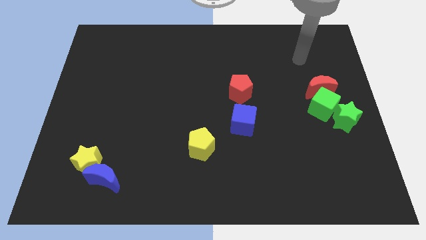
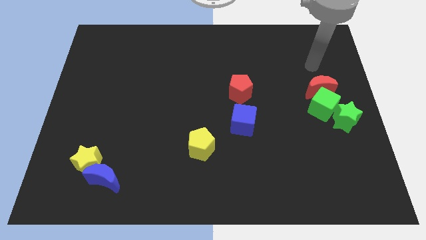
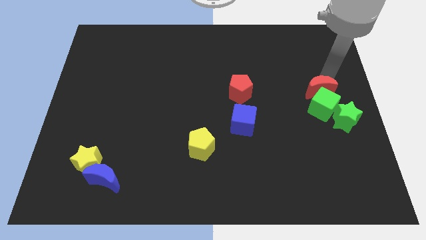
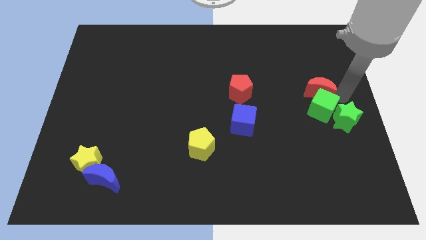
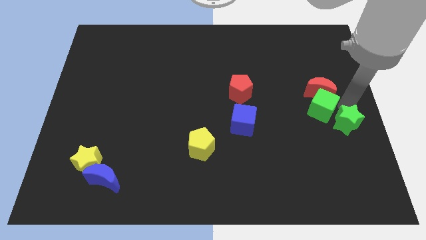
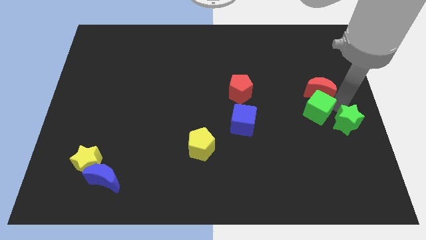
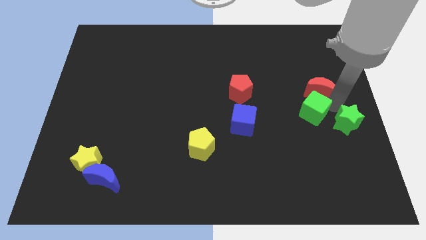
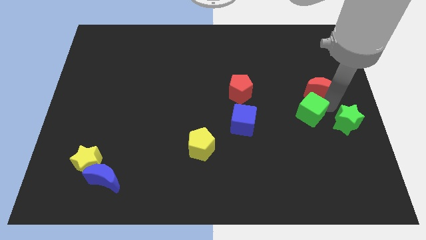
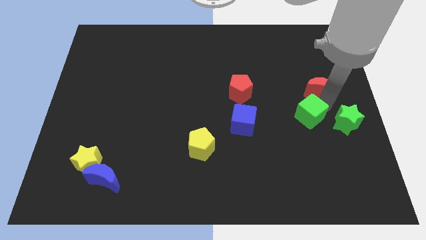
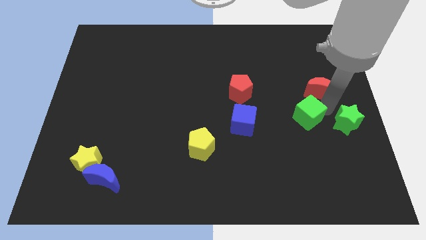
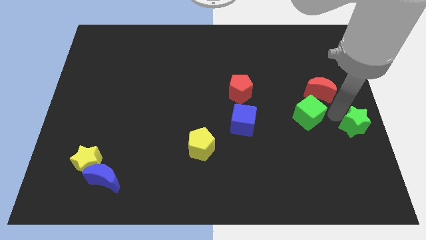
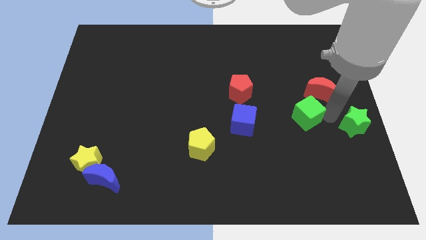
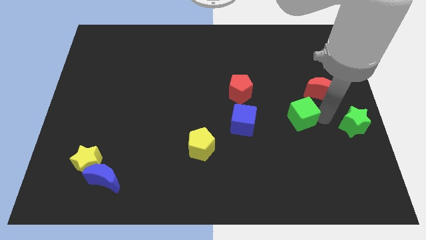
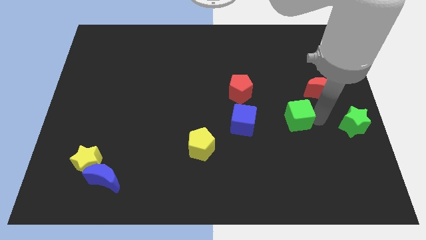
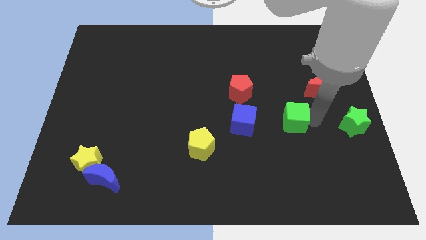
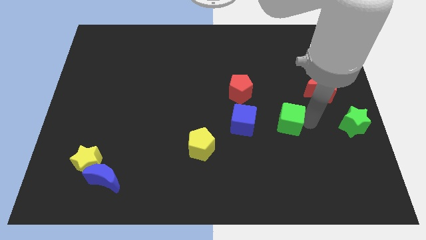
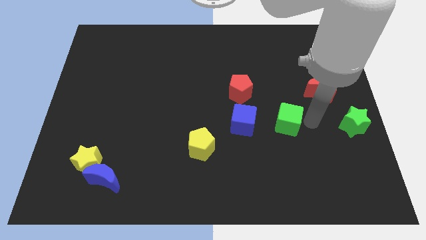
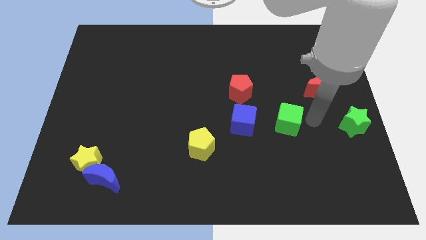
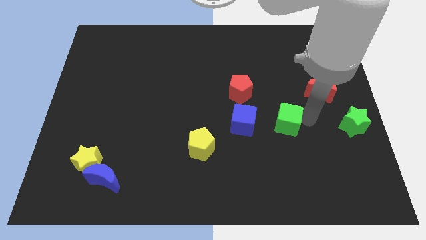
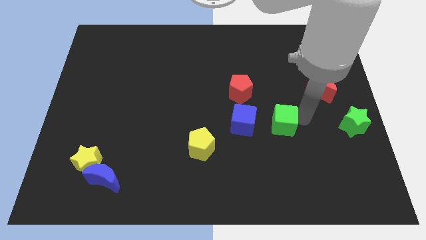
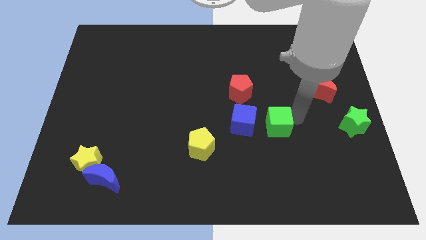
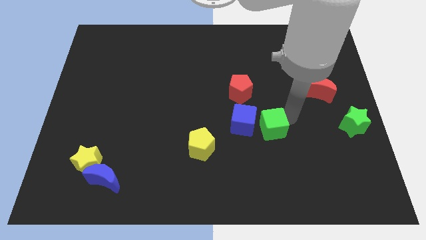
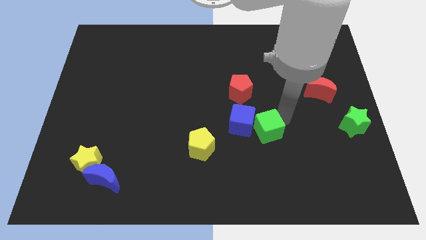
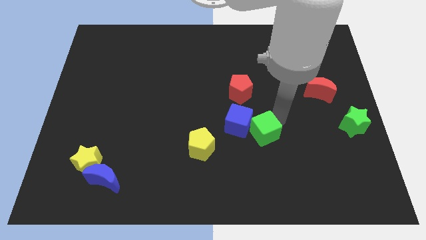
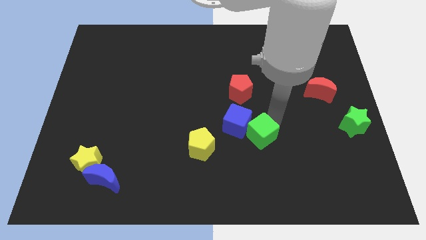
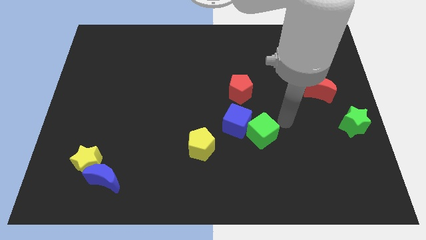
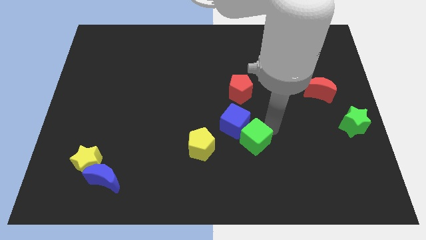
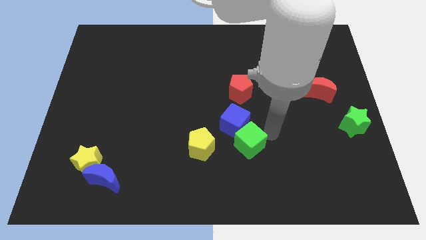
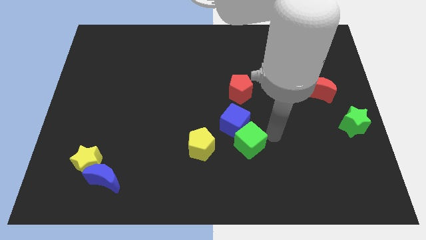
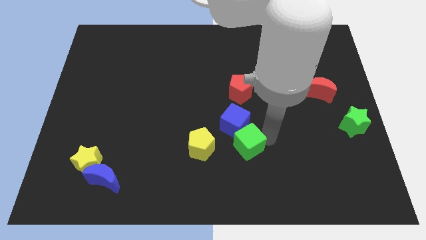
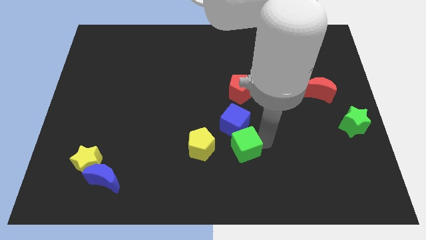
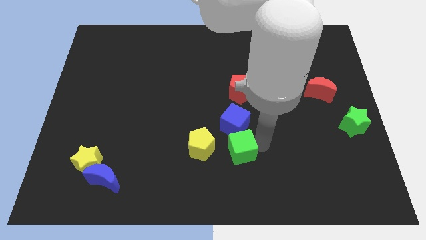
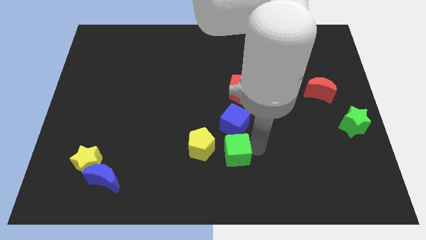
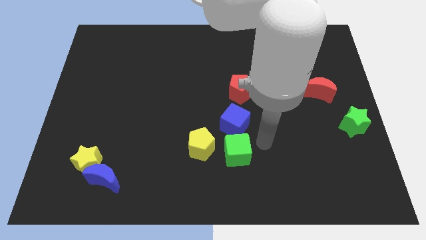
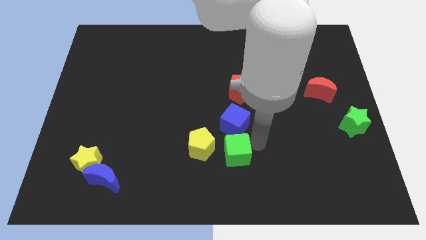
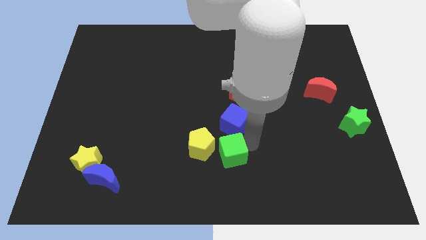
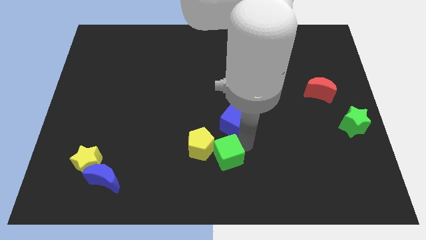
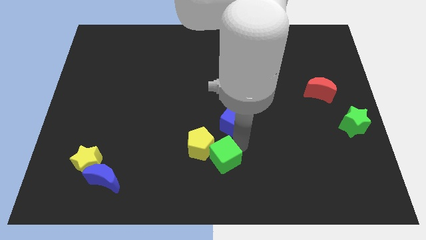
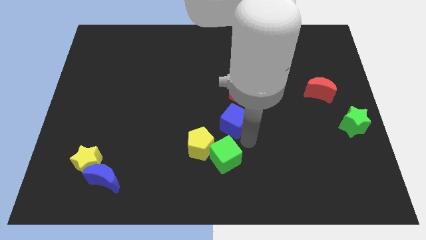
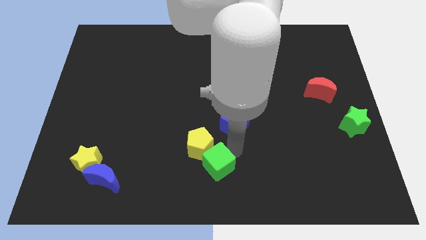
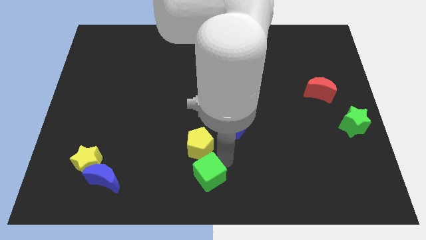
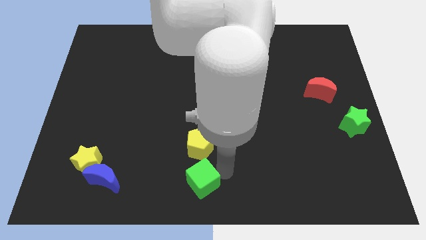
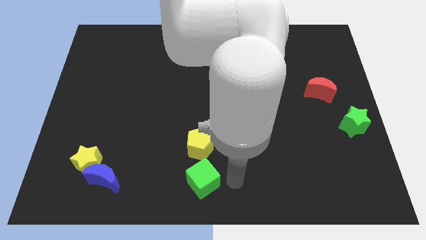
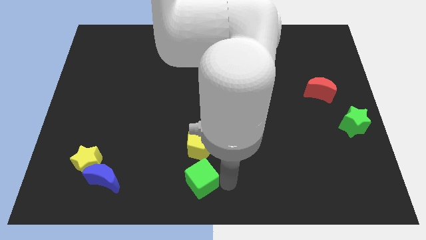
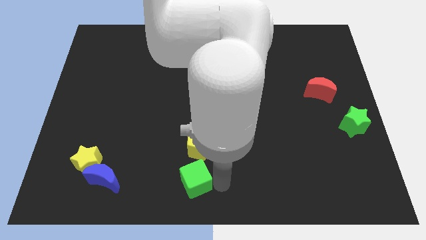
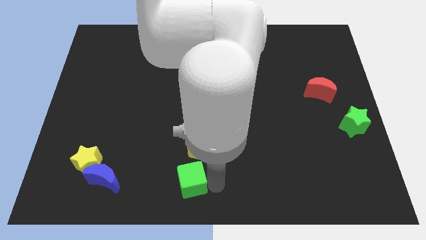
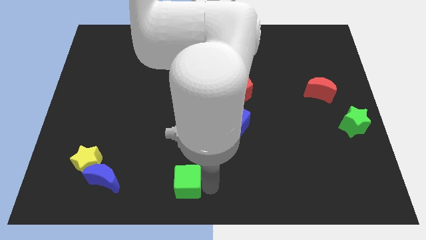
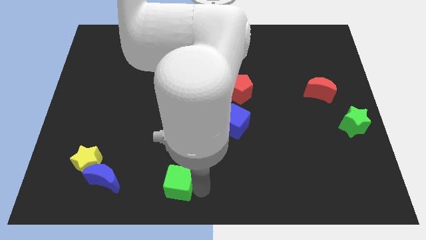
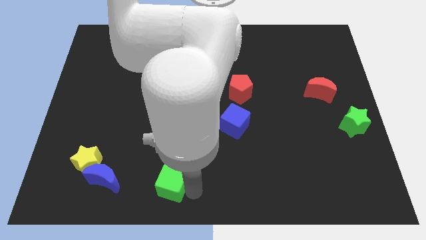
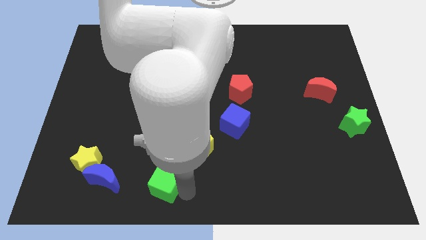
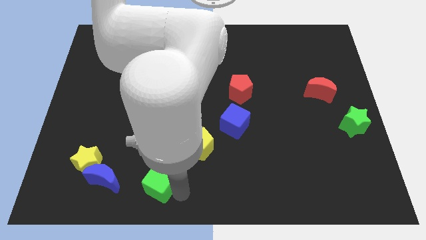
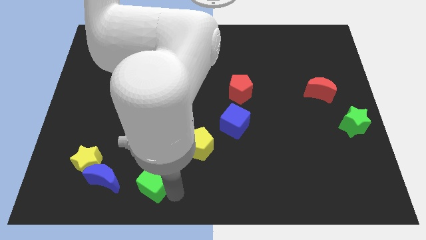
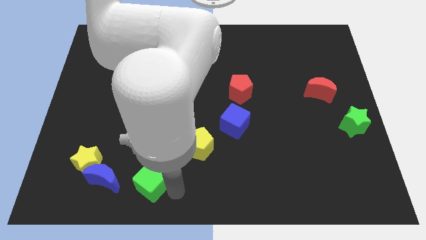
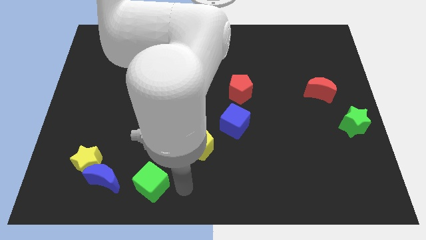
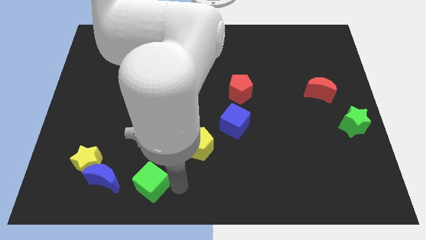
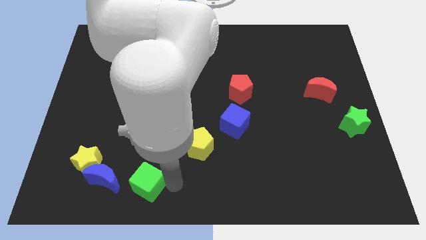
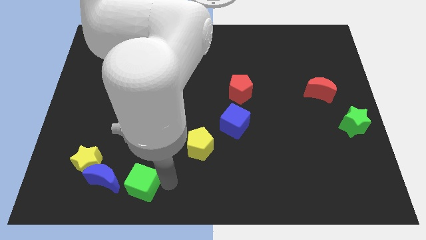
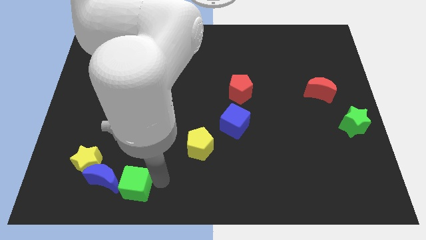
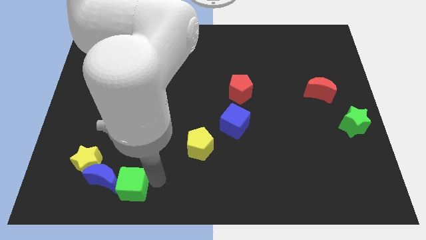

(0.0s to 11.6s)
put the green cube towards the blue moon

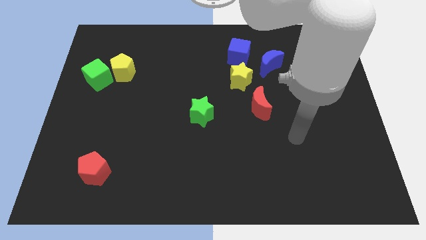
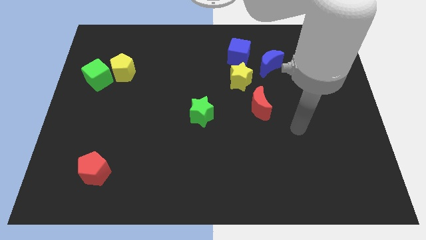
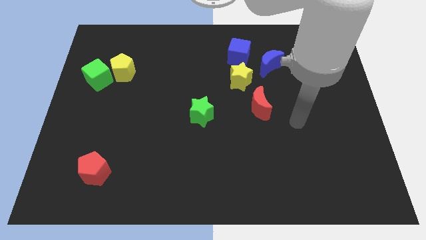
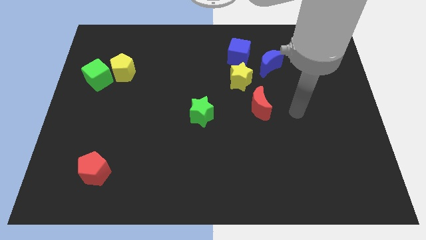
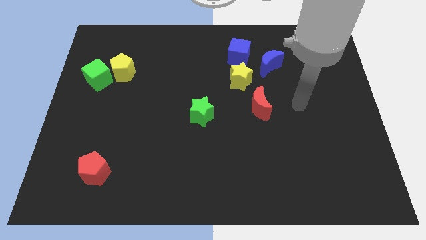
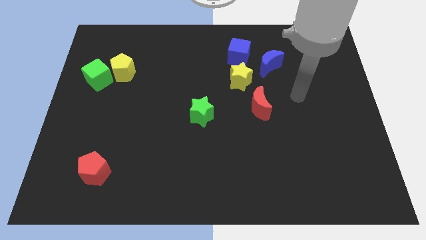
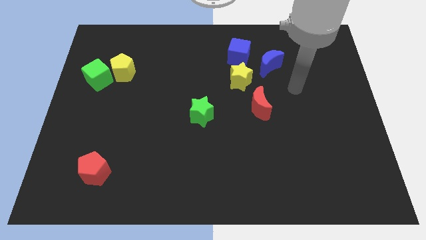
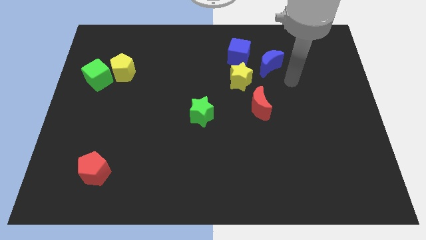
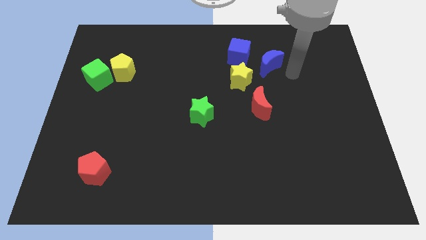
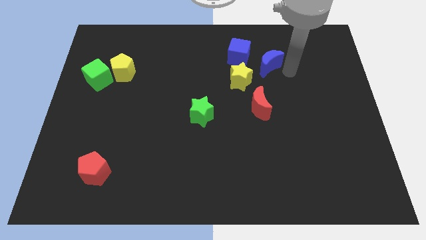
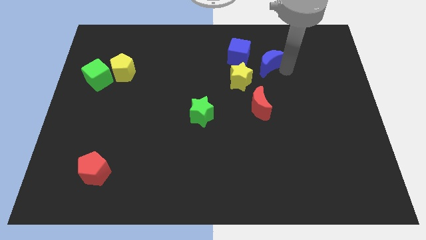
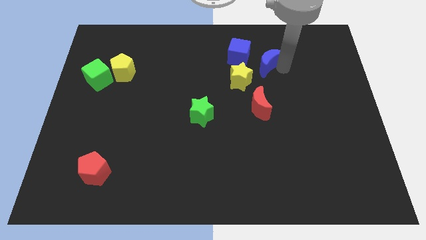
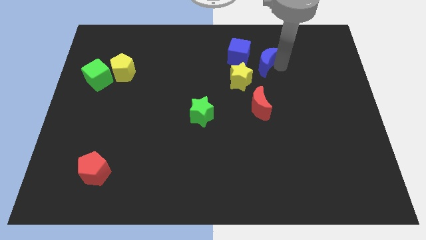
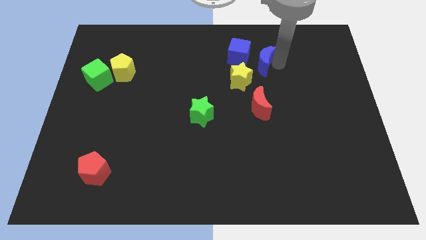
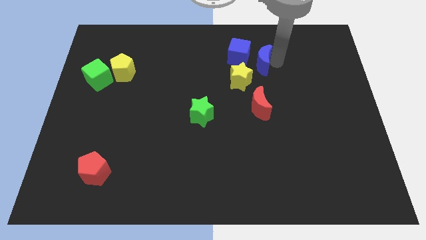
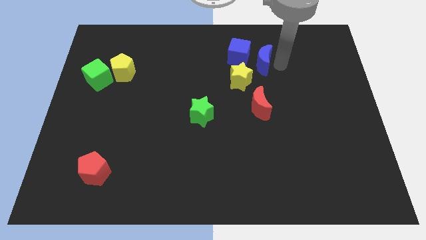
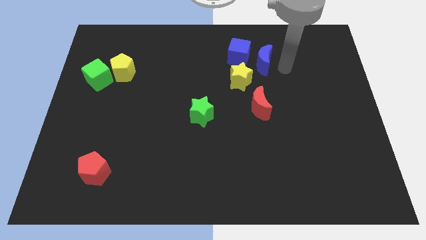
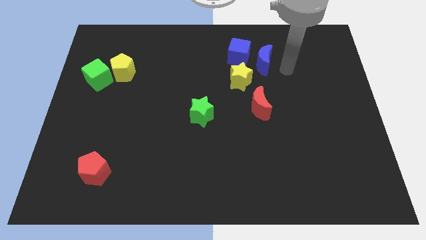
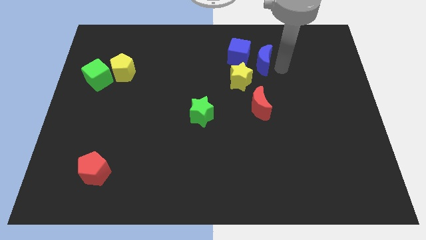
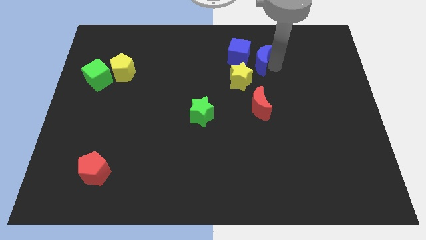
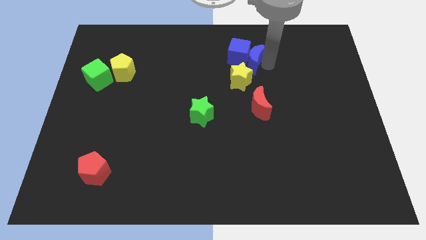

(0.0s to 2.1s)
slide the blue moon to the blue cube
